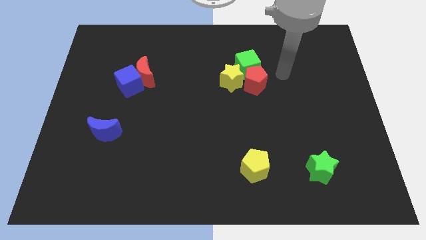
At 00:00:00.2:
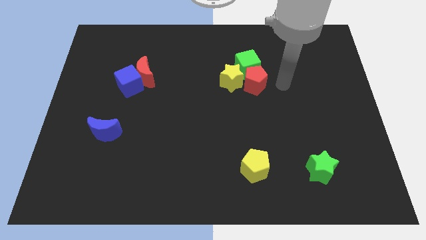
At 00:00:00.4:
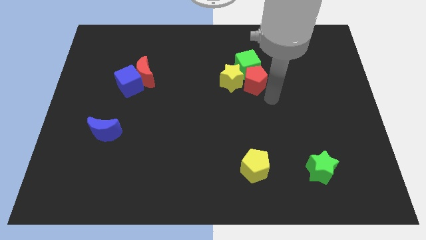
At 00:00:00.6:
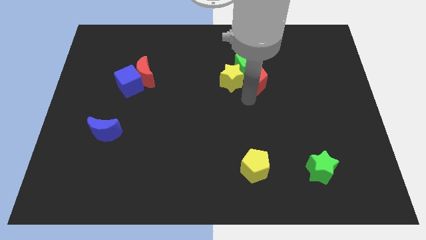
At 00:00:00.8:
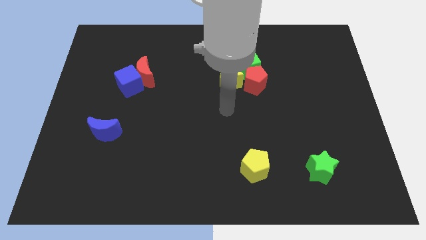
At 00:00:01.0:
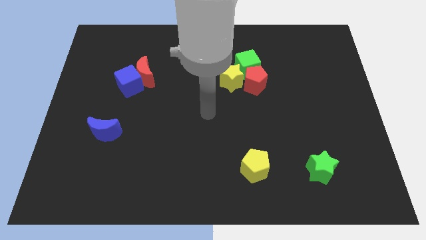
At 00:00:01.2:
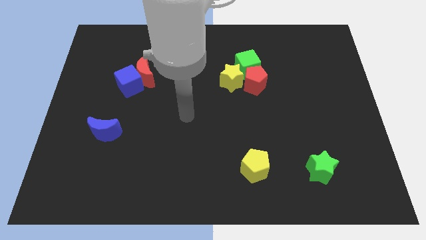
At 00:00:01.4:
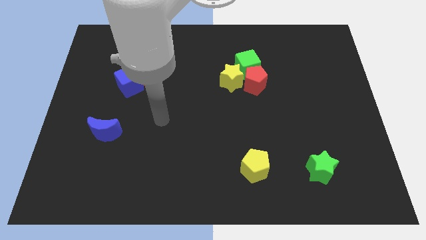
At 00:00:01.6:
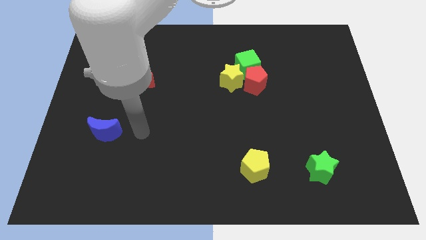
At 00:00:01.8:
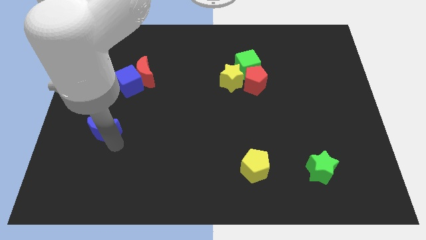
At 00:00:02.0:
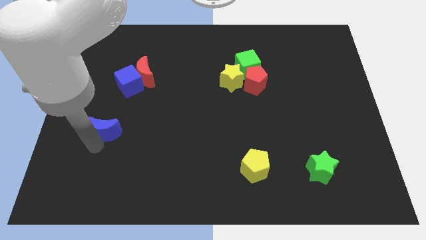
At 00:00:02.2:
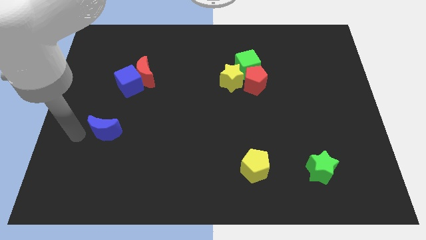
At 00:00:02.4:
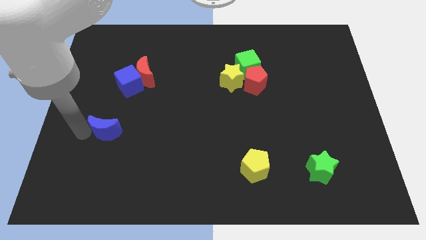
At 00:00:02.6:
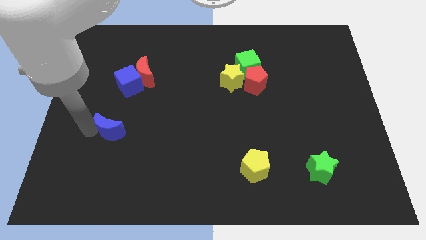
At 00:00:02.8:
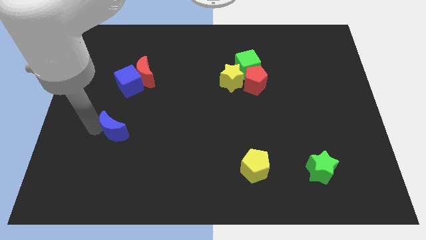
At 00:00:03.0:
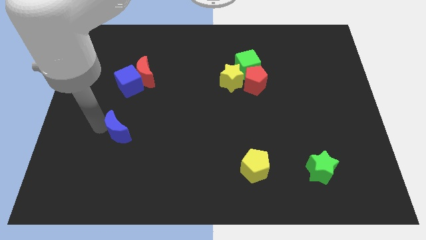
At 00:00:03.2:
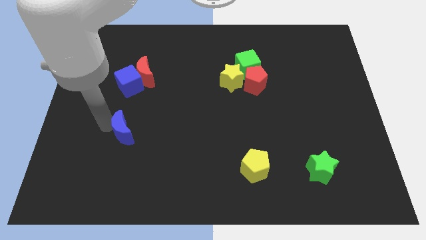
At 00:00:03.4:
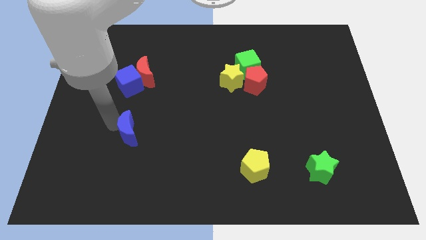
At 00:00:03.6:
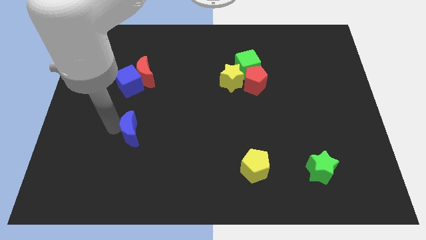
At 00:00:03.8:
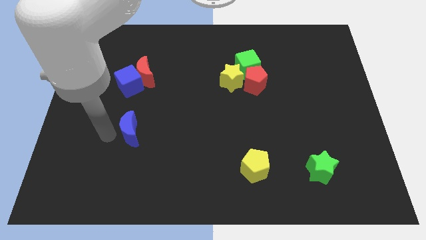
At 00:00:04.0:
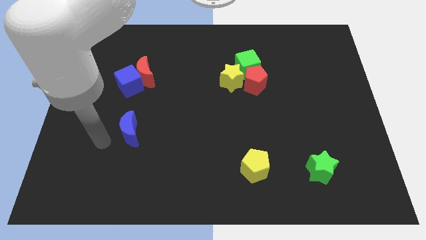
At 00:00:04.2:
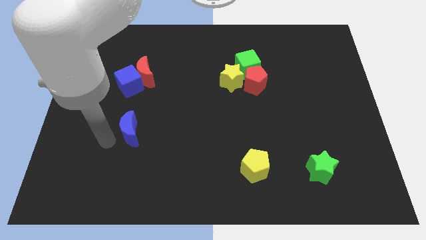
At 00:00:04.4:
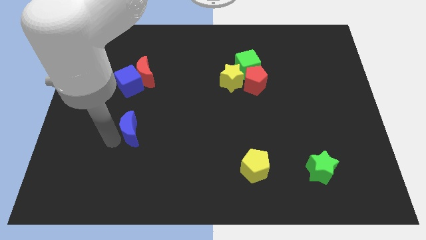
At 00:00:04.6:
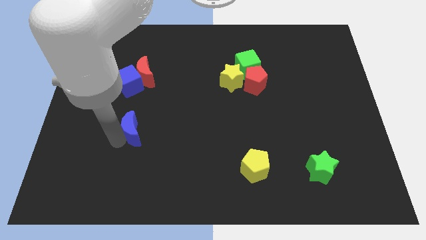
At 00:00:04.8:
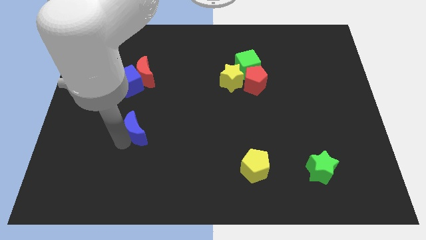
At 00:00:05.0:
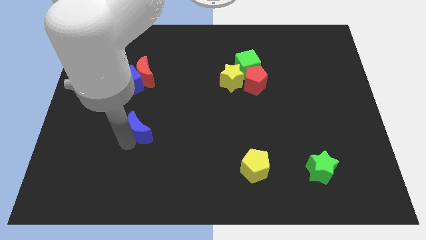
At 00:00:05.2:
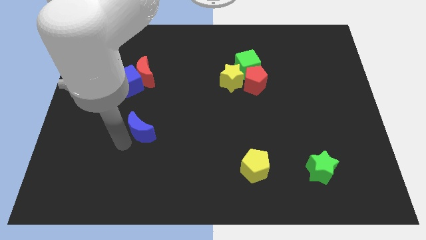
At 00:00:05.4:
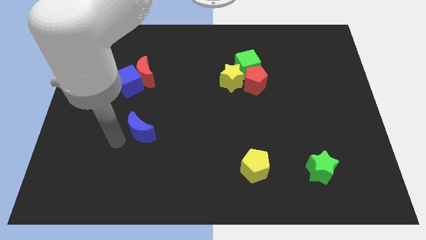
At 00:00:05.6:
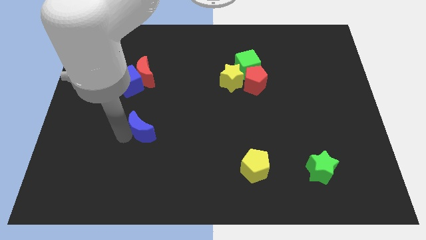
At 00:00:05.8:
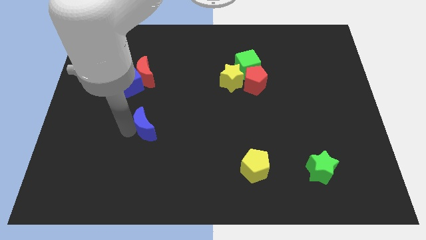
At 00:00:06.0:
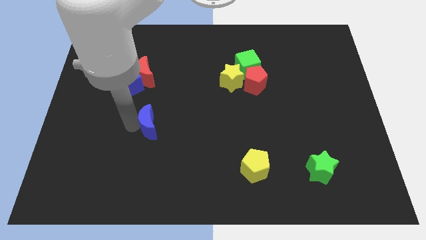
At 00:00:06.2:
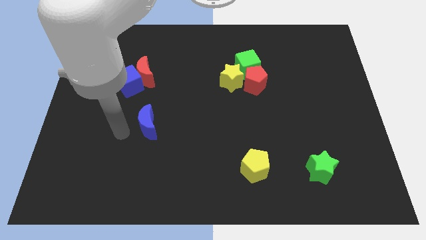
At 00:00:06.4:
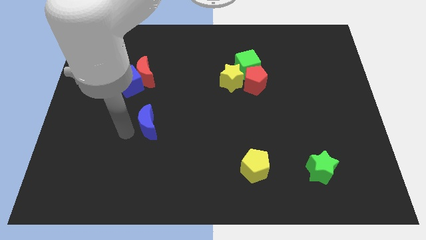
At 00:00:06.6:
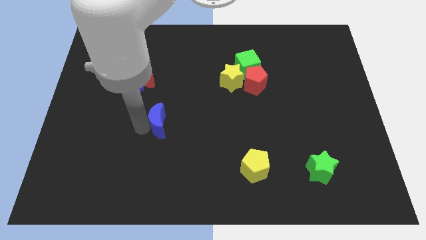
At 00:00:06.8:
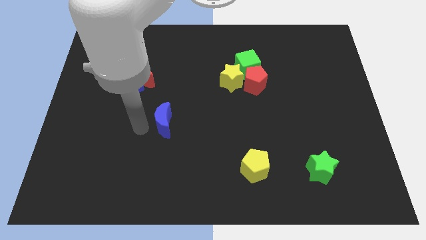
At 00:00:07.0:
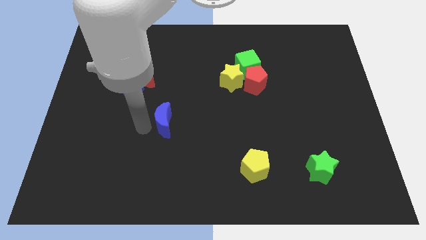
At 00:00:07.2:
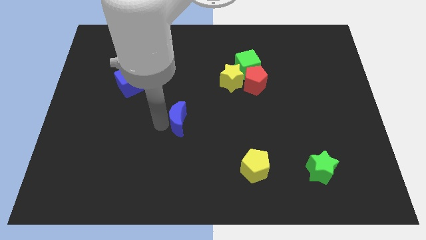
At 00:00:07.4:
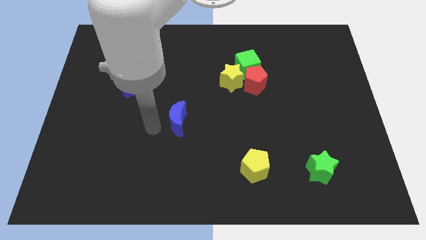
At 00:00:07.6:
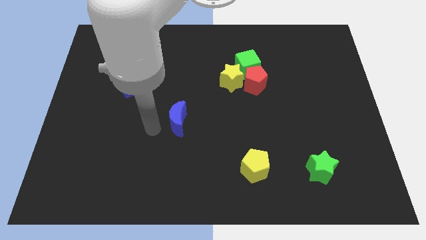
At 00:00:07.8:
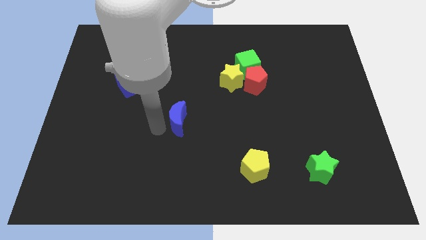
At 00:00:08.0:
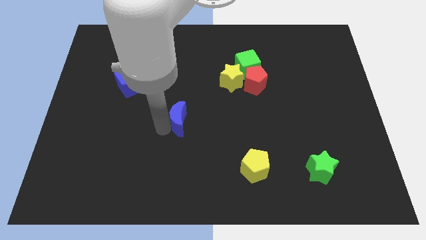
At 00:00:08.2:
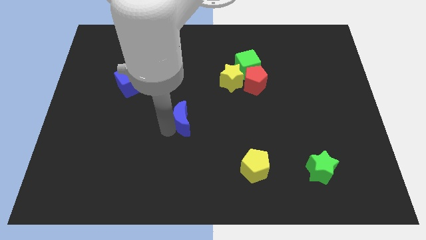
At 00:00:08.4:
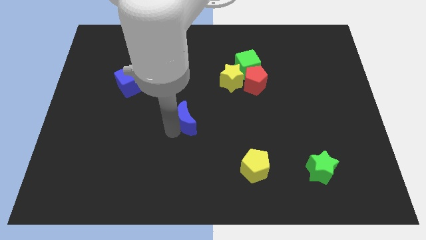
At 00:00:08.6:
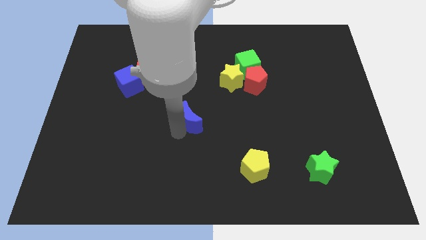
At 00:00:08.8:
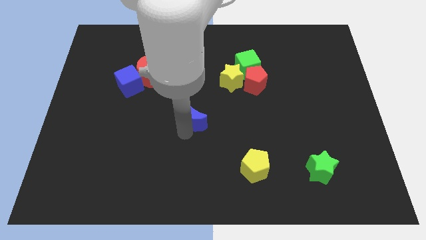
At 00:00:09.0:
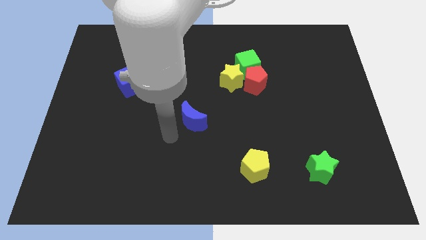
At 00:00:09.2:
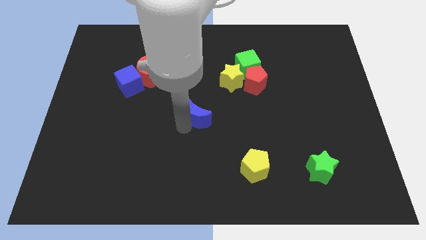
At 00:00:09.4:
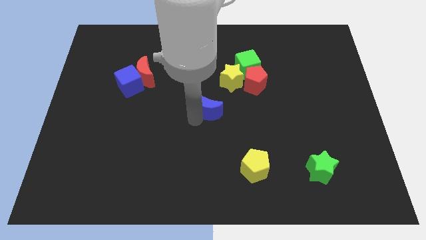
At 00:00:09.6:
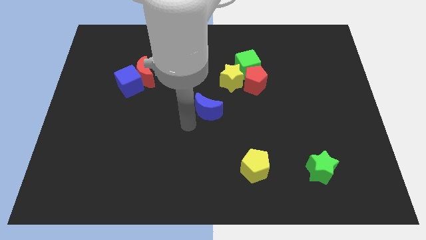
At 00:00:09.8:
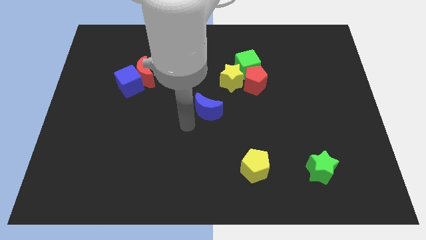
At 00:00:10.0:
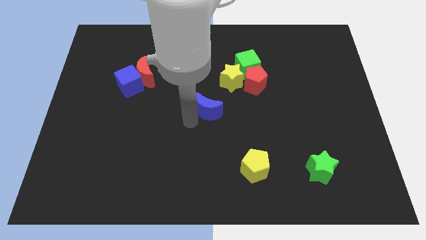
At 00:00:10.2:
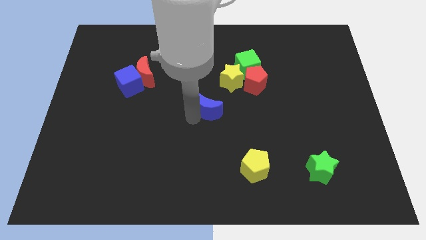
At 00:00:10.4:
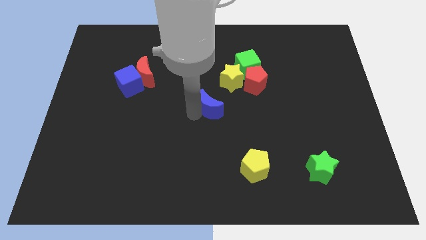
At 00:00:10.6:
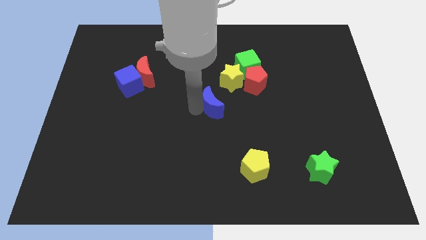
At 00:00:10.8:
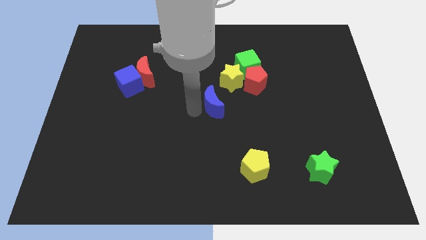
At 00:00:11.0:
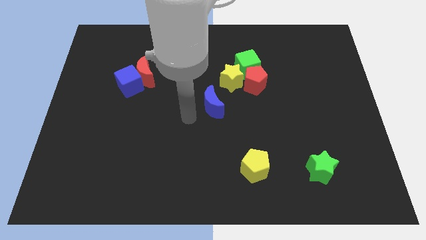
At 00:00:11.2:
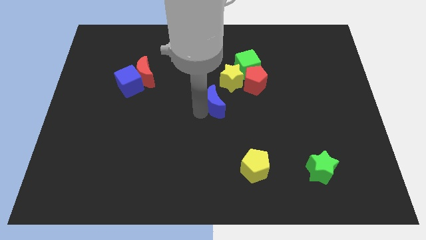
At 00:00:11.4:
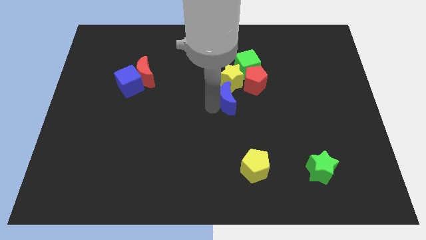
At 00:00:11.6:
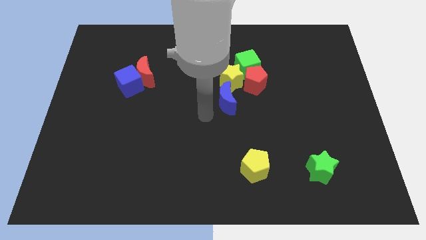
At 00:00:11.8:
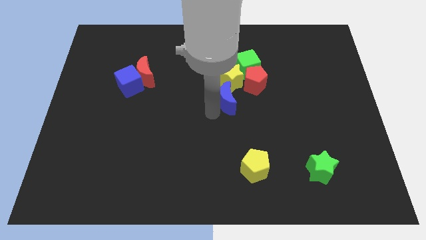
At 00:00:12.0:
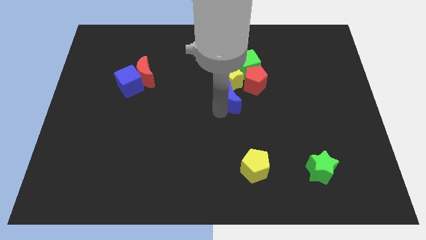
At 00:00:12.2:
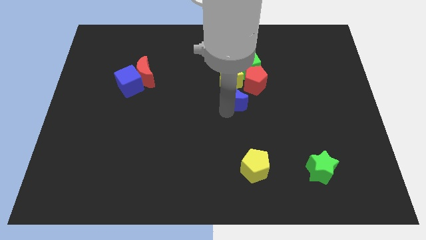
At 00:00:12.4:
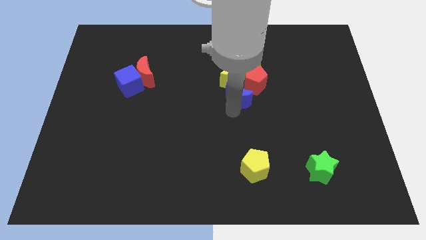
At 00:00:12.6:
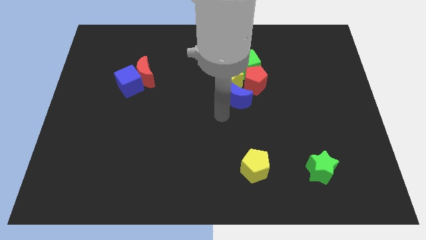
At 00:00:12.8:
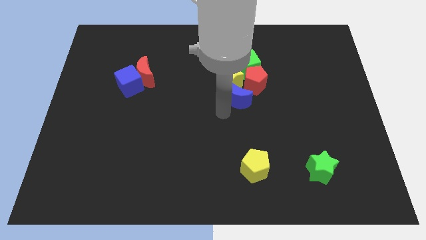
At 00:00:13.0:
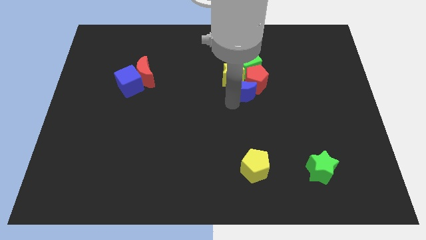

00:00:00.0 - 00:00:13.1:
slide the blue moon towards the red pentagon

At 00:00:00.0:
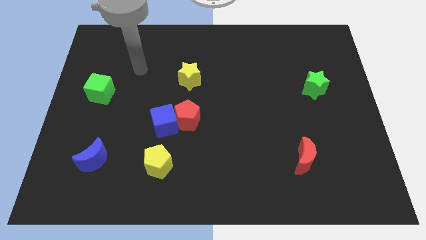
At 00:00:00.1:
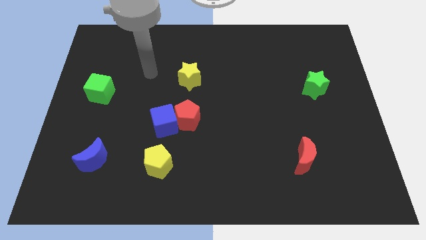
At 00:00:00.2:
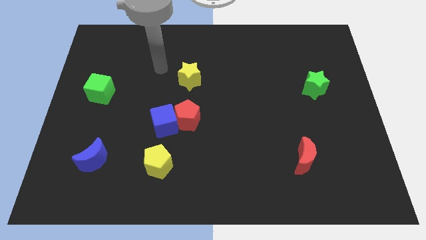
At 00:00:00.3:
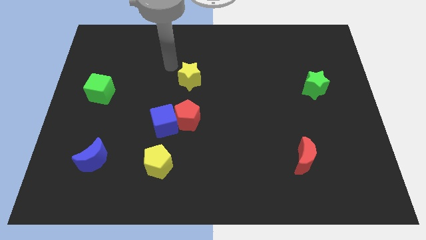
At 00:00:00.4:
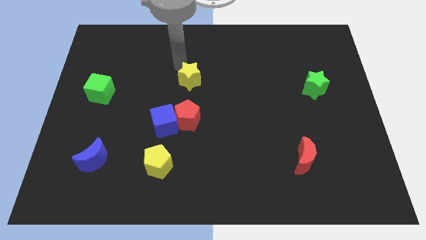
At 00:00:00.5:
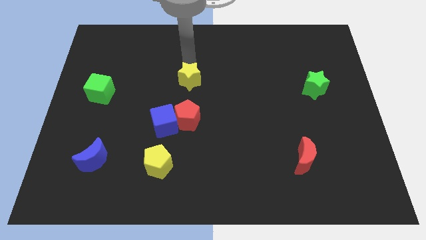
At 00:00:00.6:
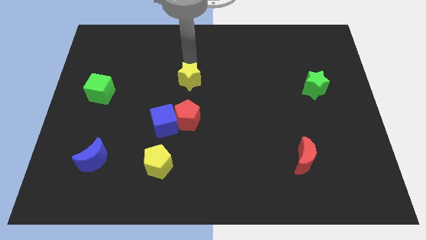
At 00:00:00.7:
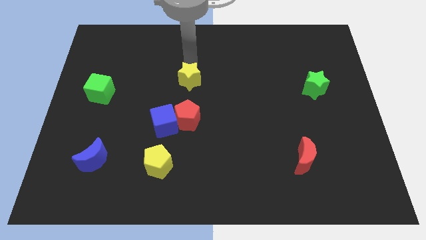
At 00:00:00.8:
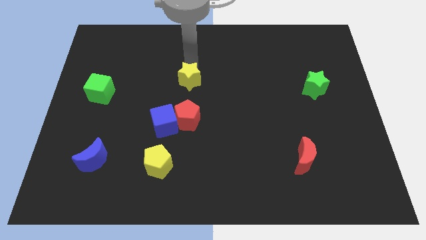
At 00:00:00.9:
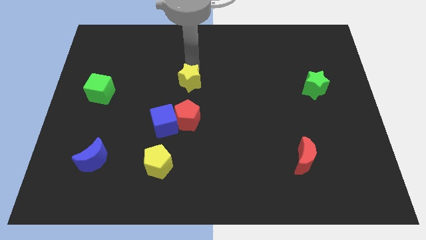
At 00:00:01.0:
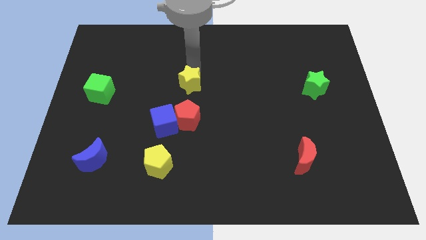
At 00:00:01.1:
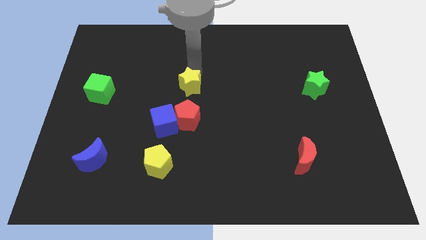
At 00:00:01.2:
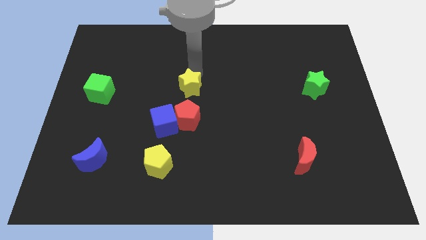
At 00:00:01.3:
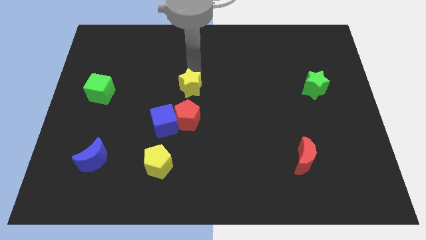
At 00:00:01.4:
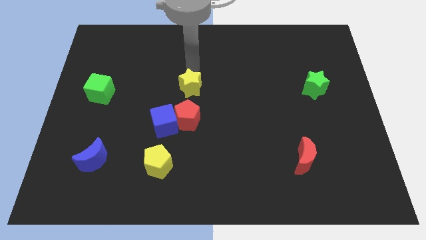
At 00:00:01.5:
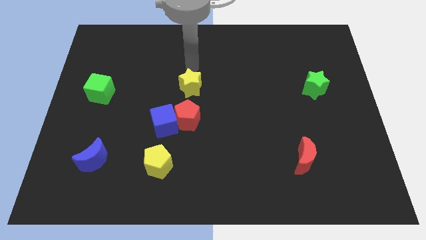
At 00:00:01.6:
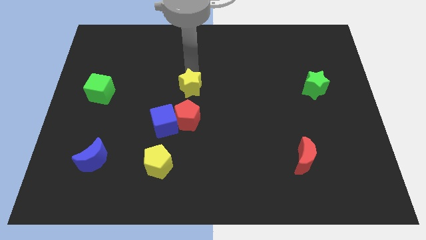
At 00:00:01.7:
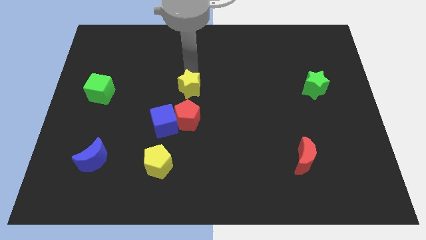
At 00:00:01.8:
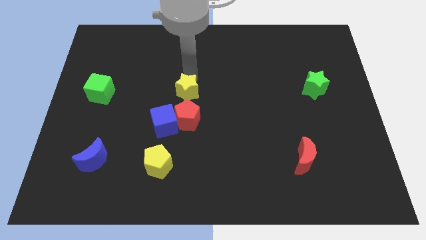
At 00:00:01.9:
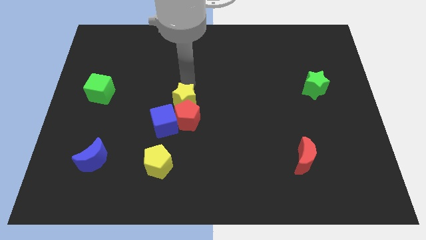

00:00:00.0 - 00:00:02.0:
push the yellow star close to the red pentagon
